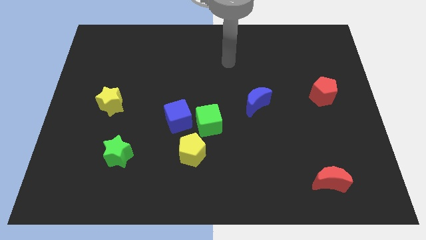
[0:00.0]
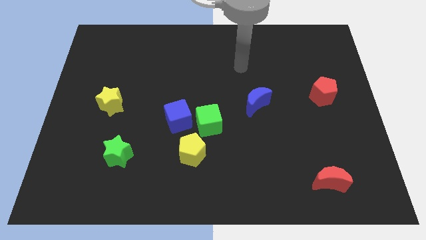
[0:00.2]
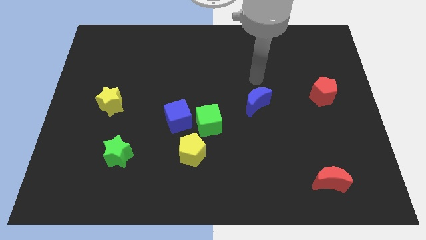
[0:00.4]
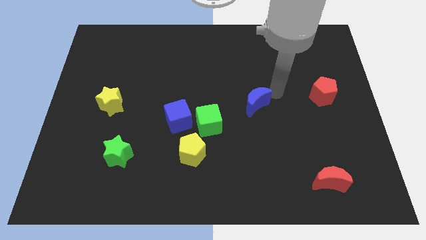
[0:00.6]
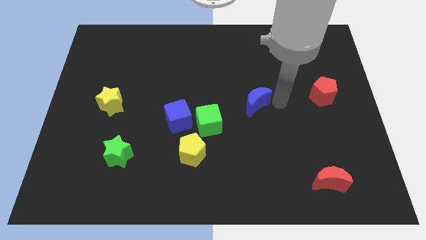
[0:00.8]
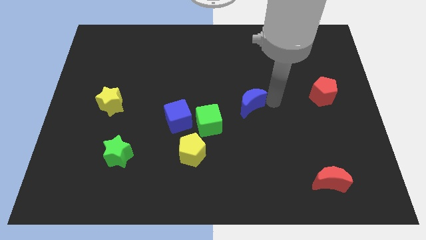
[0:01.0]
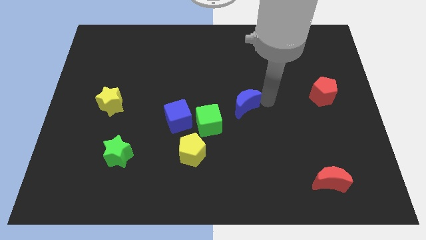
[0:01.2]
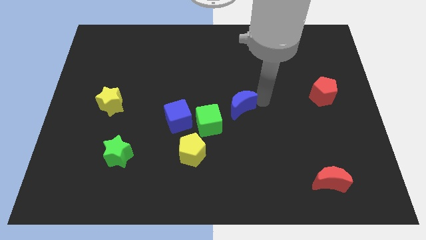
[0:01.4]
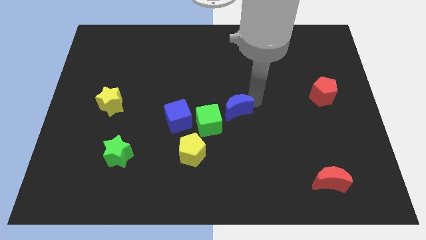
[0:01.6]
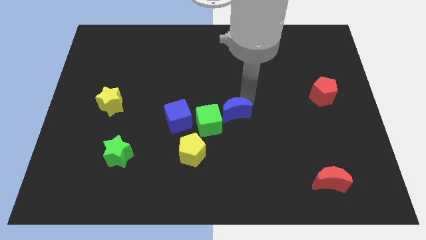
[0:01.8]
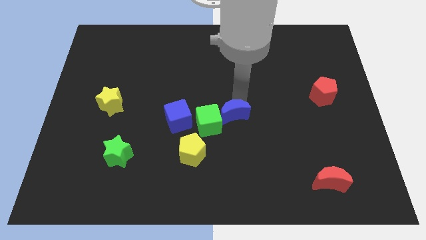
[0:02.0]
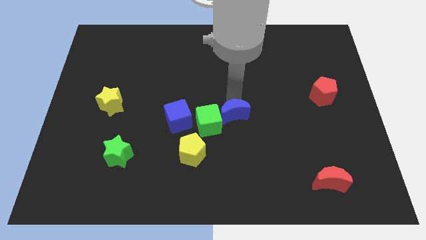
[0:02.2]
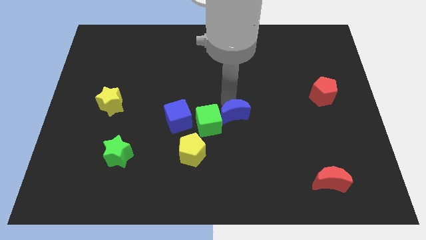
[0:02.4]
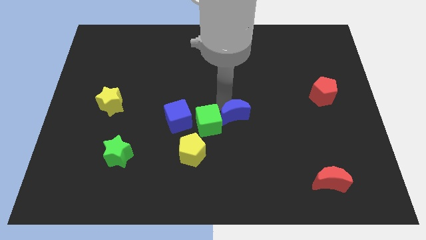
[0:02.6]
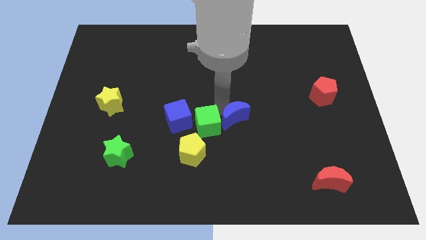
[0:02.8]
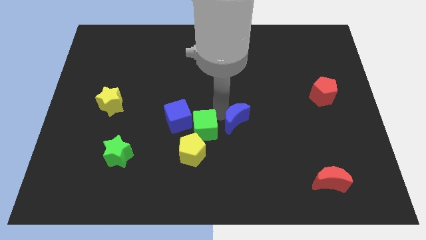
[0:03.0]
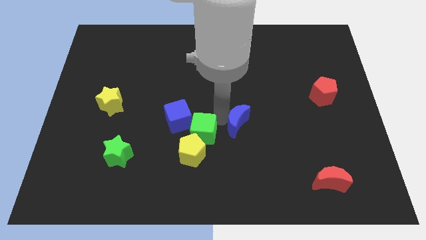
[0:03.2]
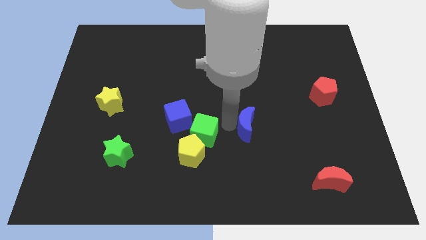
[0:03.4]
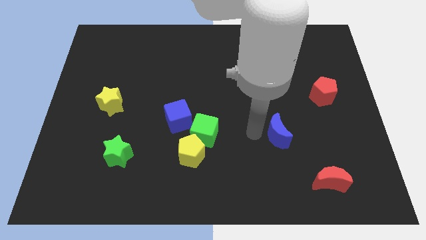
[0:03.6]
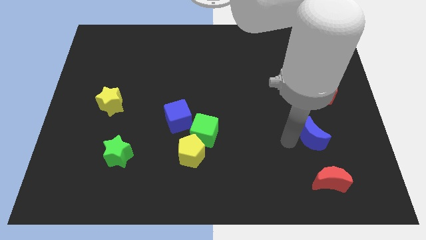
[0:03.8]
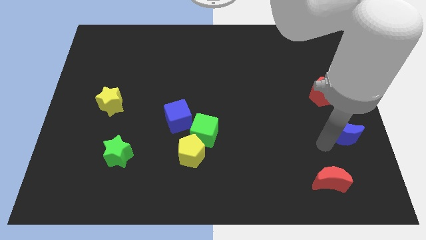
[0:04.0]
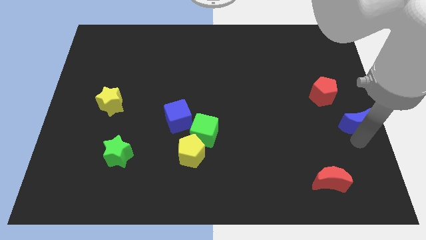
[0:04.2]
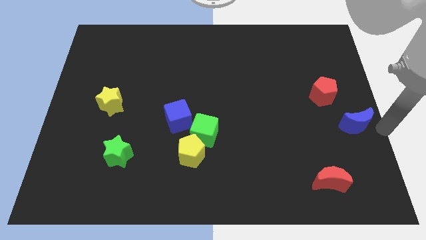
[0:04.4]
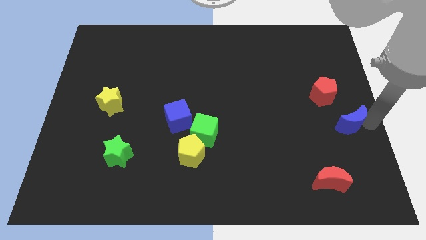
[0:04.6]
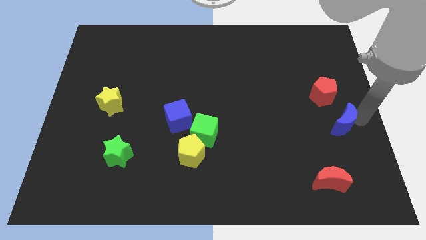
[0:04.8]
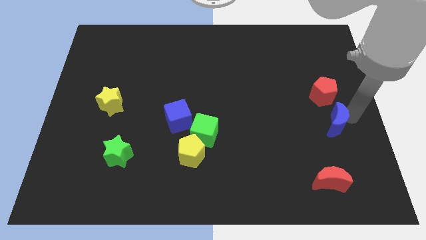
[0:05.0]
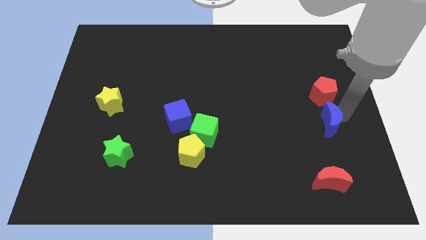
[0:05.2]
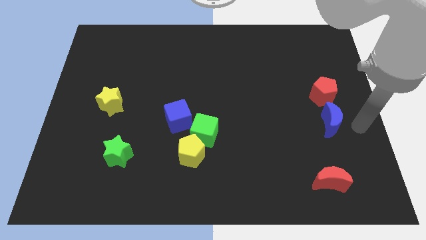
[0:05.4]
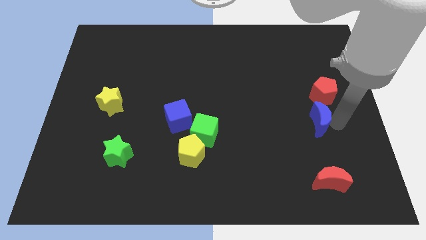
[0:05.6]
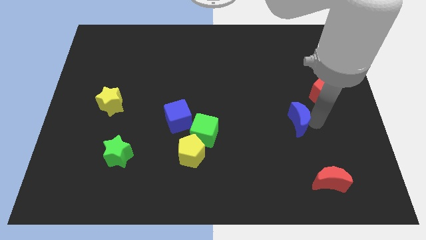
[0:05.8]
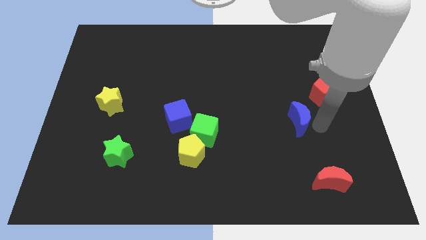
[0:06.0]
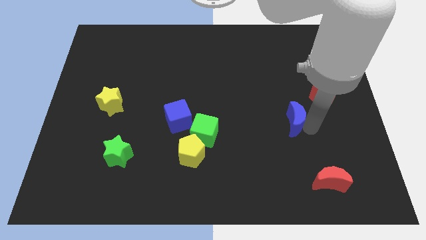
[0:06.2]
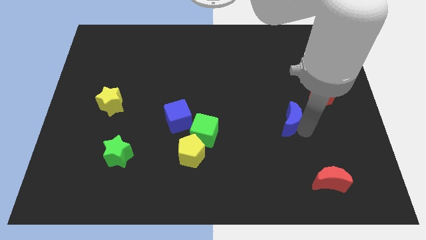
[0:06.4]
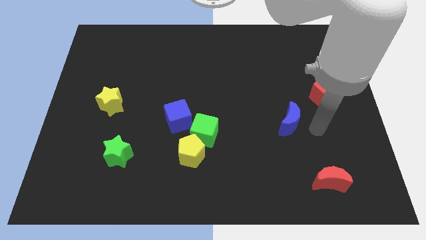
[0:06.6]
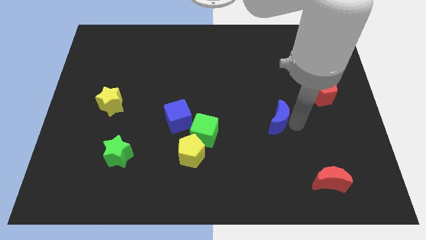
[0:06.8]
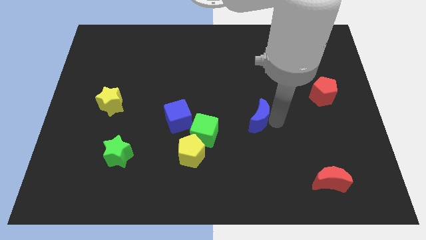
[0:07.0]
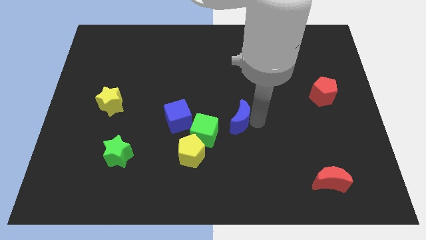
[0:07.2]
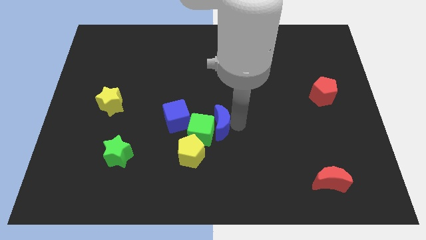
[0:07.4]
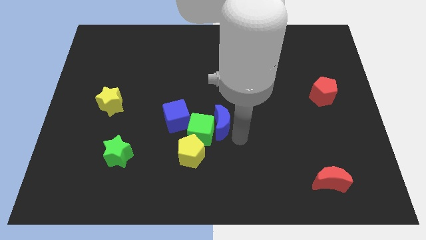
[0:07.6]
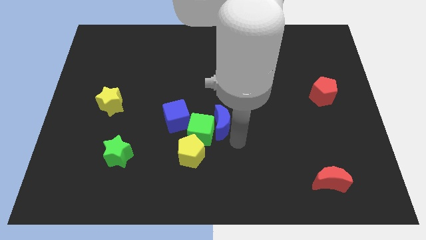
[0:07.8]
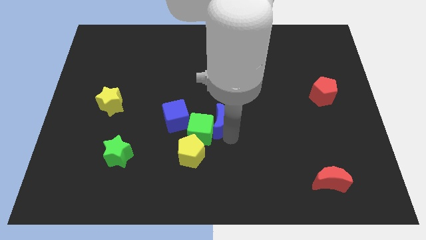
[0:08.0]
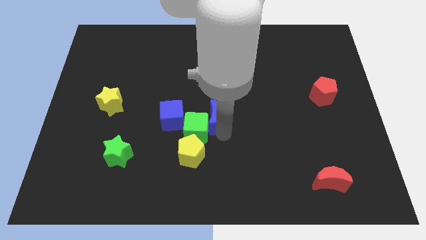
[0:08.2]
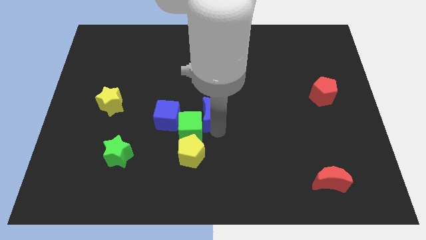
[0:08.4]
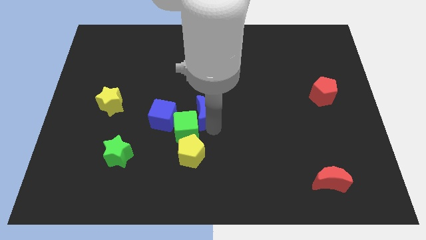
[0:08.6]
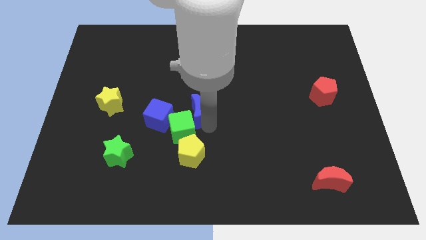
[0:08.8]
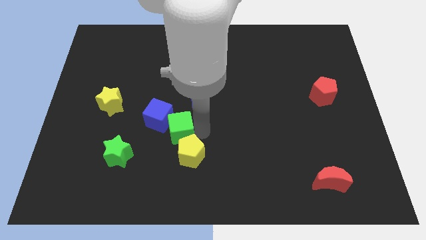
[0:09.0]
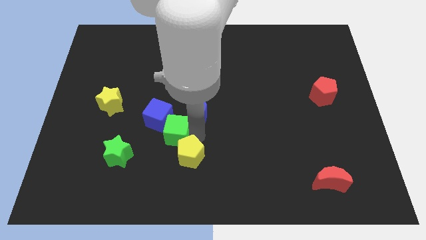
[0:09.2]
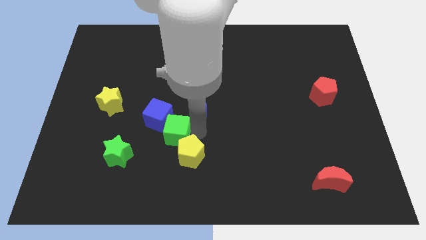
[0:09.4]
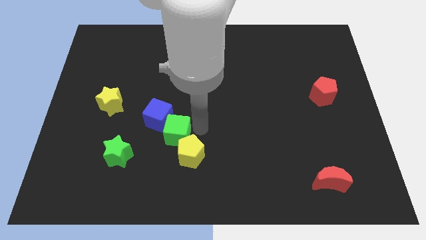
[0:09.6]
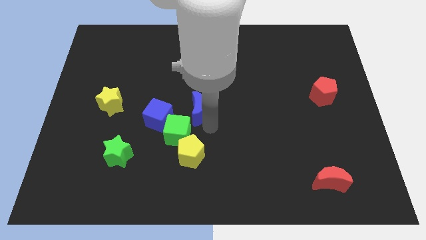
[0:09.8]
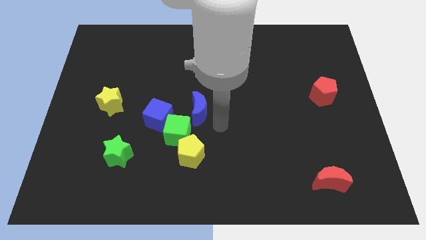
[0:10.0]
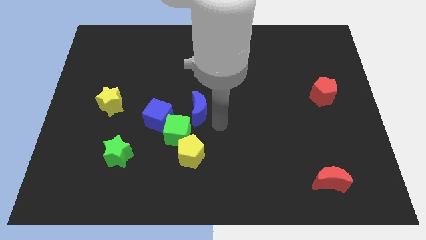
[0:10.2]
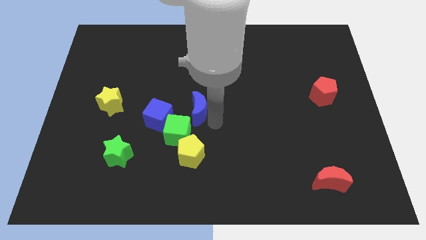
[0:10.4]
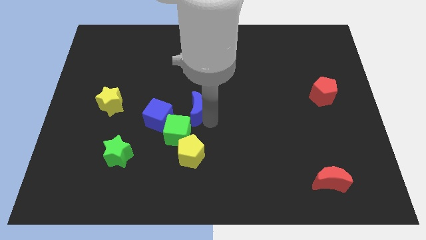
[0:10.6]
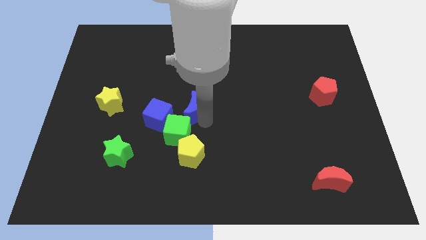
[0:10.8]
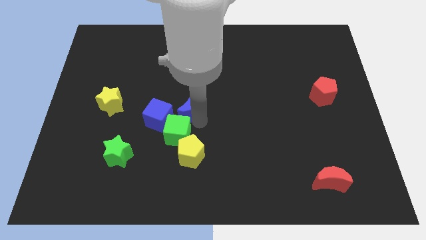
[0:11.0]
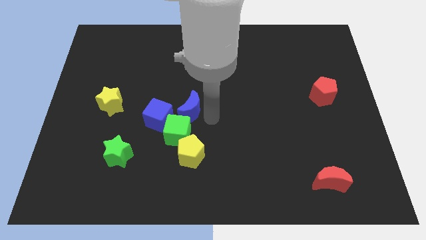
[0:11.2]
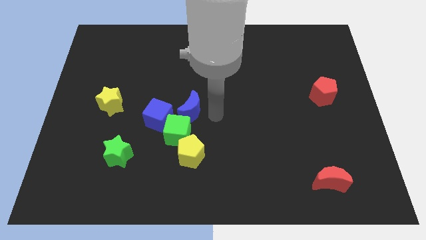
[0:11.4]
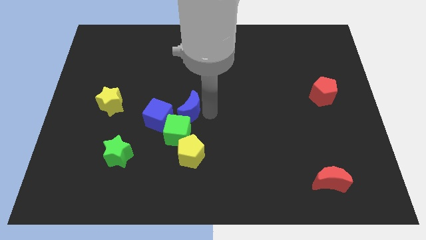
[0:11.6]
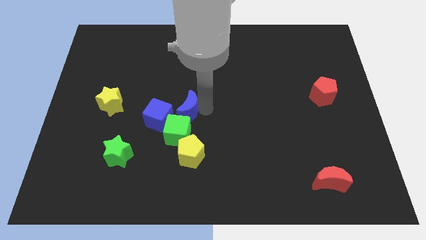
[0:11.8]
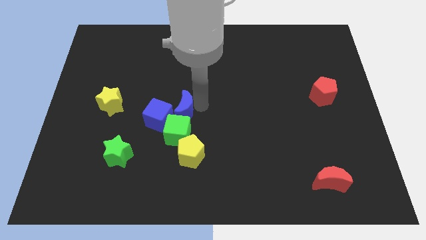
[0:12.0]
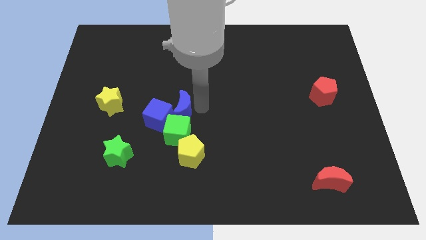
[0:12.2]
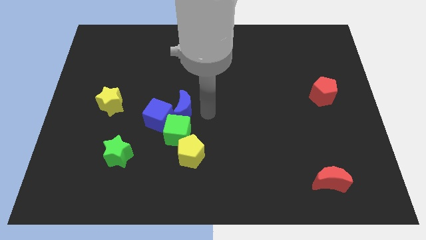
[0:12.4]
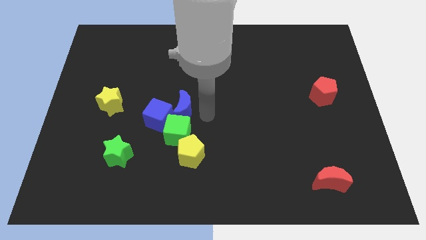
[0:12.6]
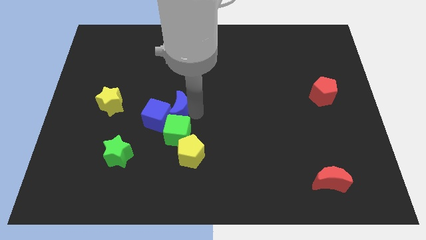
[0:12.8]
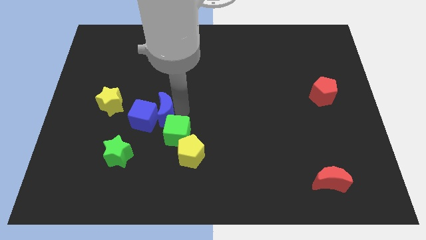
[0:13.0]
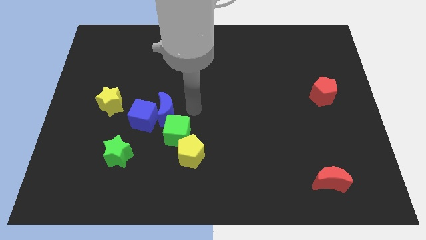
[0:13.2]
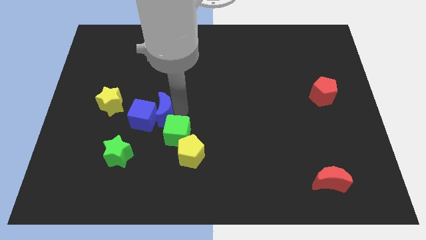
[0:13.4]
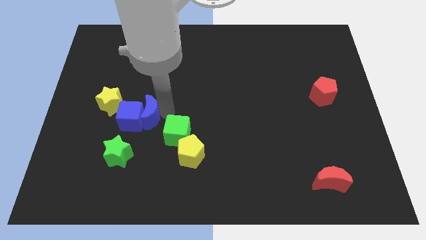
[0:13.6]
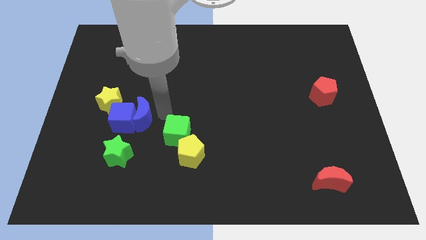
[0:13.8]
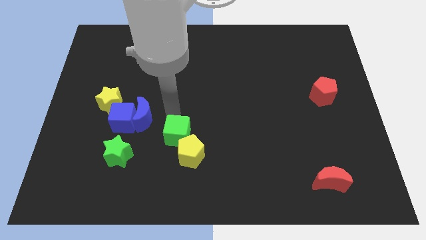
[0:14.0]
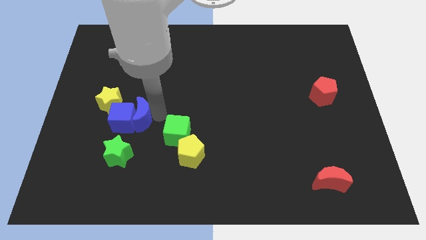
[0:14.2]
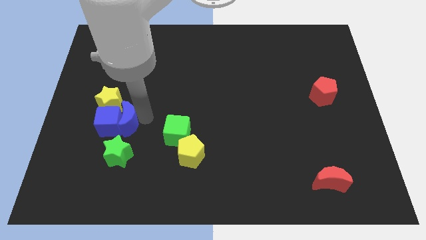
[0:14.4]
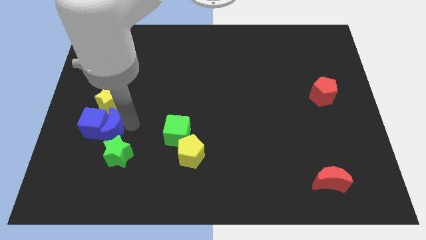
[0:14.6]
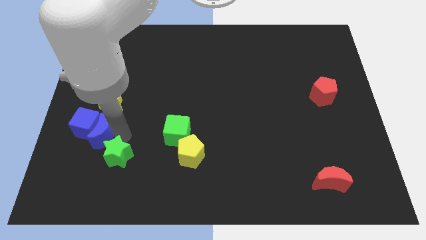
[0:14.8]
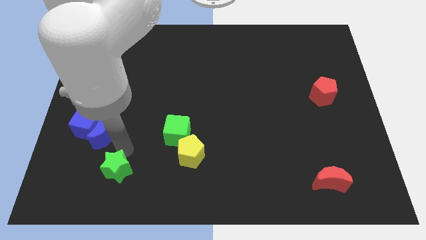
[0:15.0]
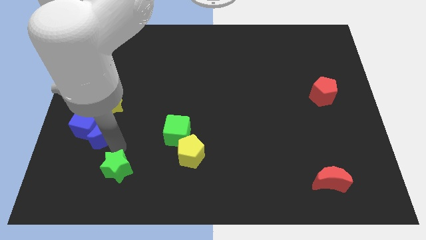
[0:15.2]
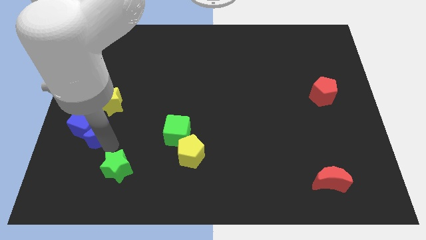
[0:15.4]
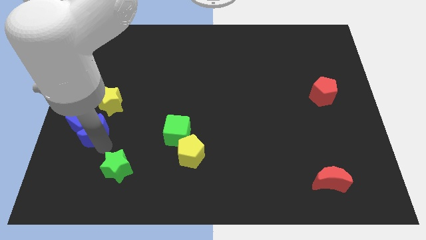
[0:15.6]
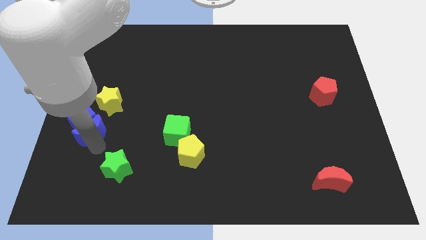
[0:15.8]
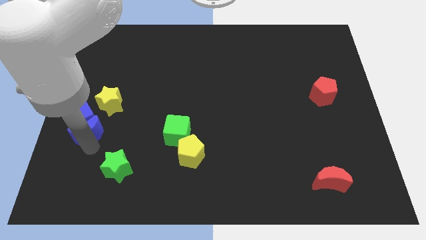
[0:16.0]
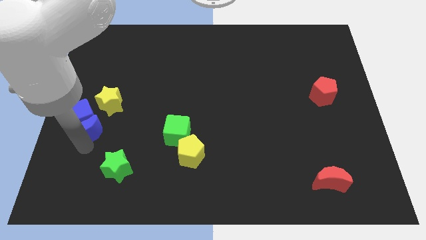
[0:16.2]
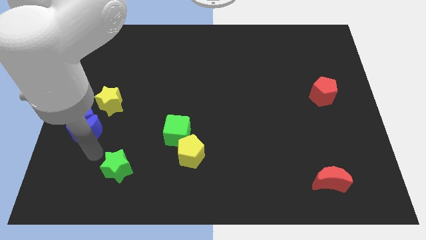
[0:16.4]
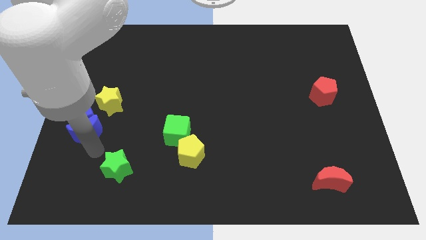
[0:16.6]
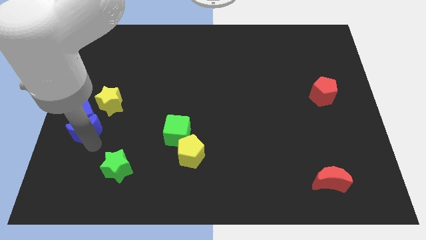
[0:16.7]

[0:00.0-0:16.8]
slide the blue moon to the left side of the board
